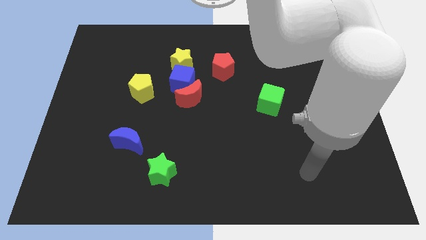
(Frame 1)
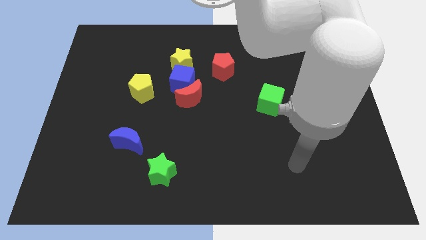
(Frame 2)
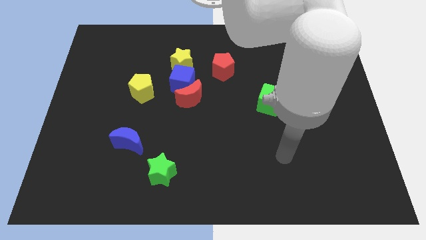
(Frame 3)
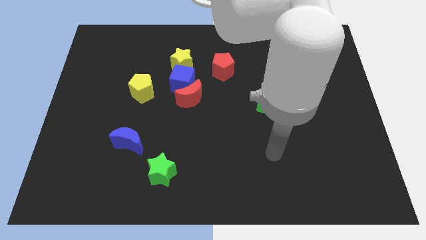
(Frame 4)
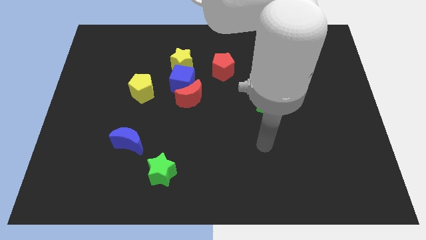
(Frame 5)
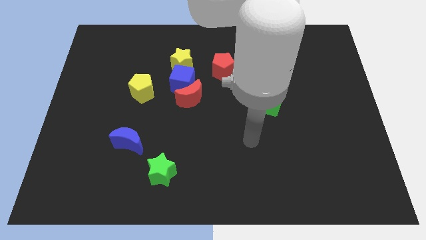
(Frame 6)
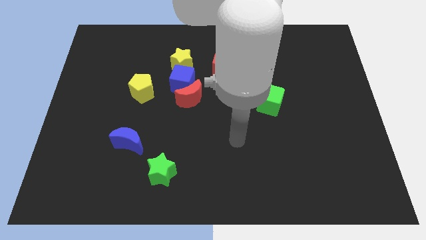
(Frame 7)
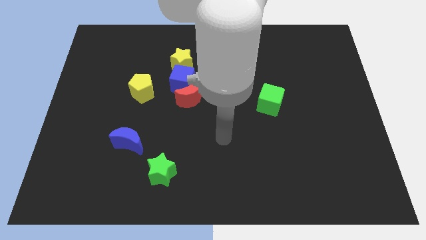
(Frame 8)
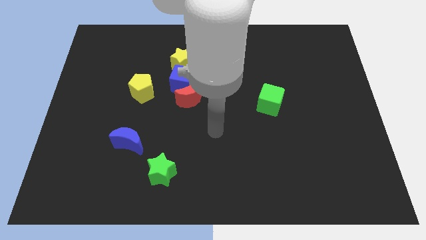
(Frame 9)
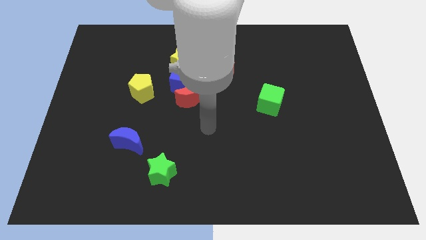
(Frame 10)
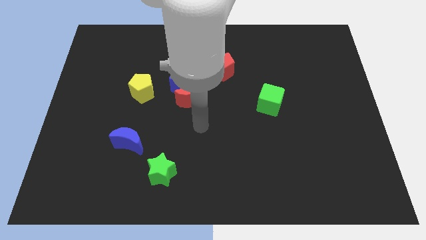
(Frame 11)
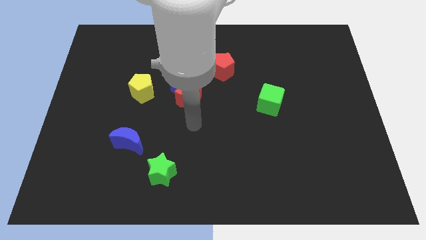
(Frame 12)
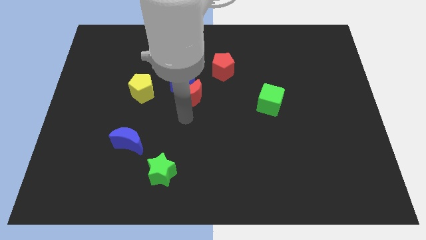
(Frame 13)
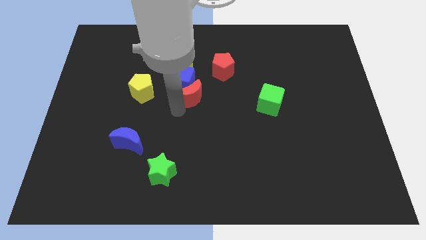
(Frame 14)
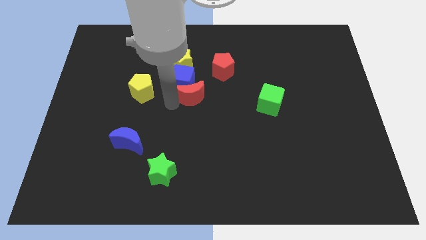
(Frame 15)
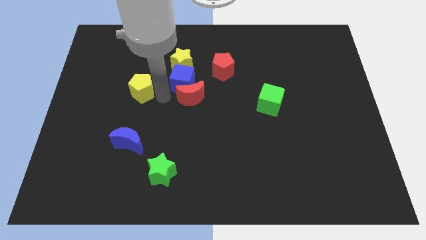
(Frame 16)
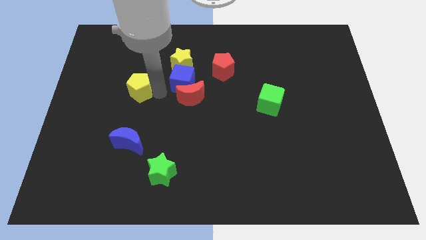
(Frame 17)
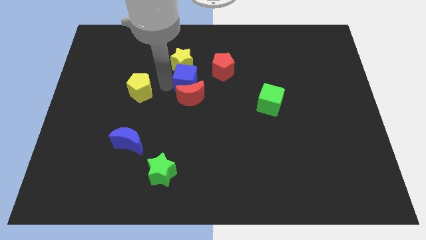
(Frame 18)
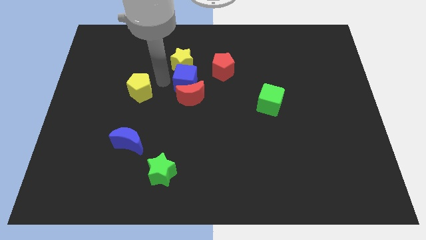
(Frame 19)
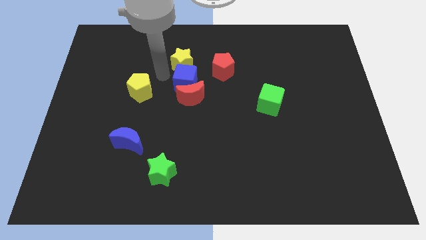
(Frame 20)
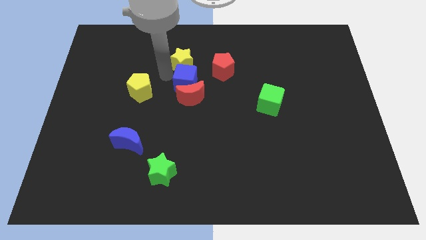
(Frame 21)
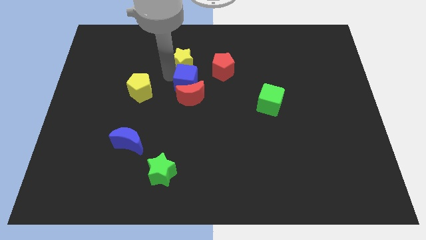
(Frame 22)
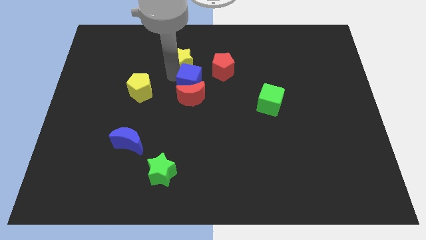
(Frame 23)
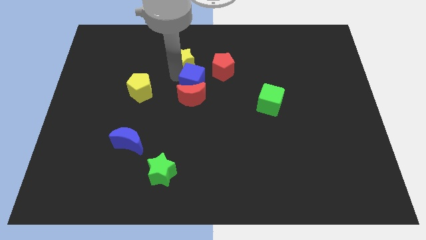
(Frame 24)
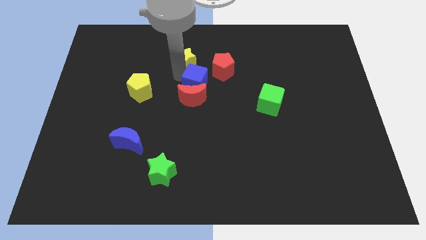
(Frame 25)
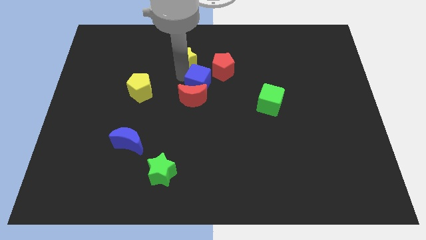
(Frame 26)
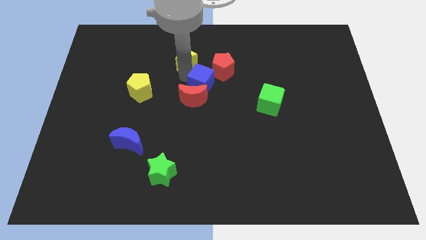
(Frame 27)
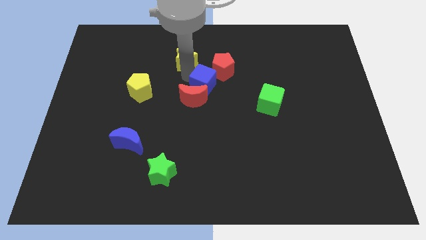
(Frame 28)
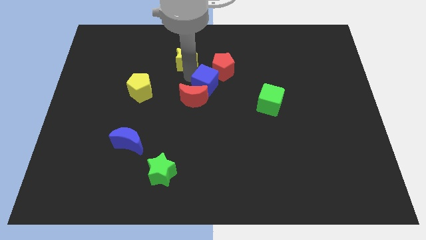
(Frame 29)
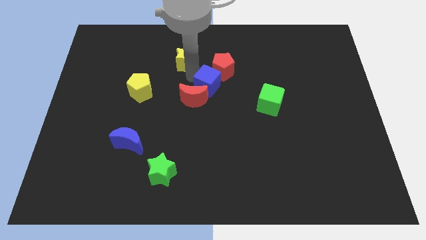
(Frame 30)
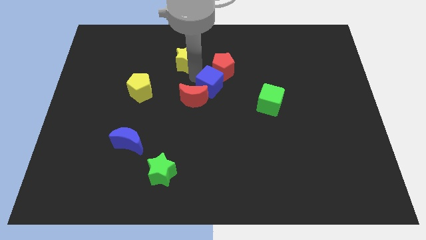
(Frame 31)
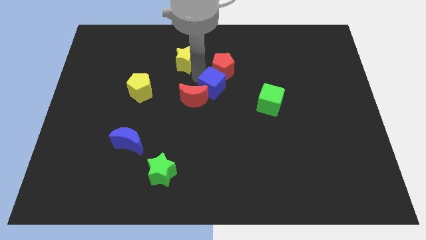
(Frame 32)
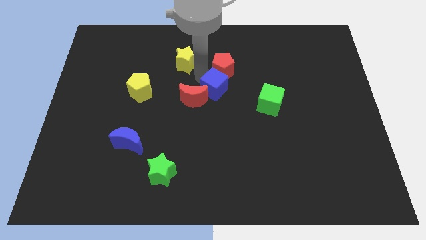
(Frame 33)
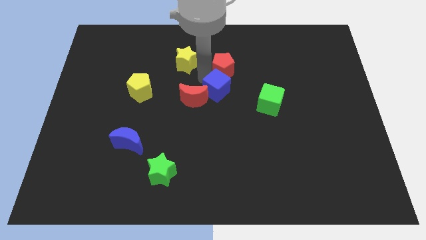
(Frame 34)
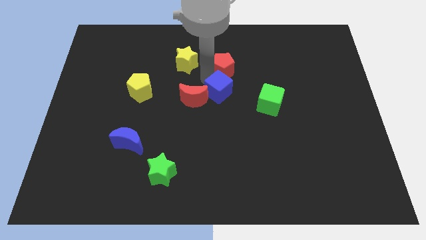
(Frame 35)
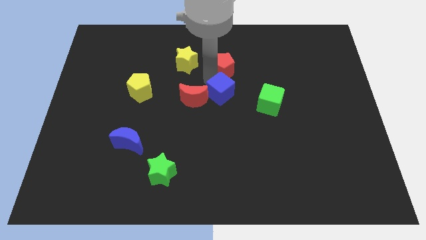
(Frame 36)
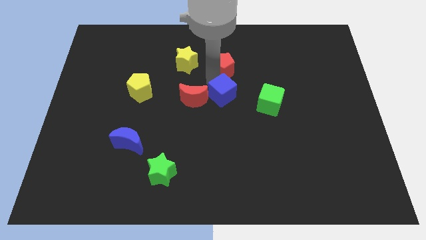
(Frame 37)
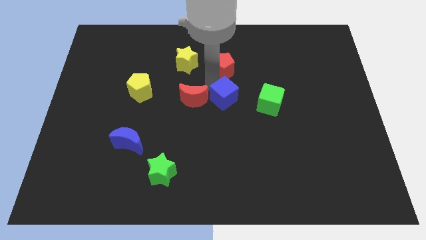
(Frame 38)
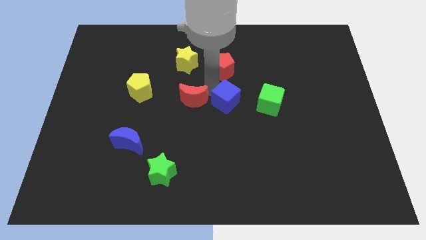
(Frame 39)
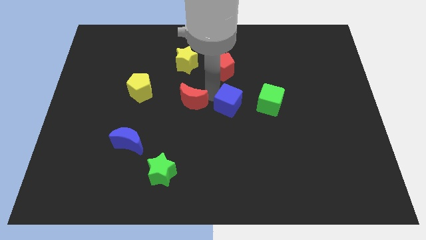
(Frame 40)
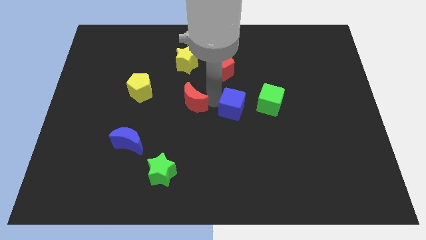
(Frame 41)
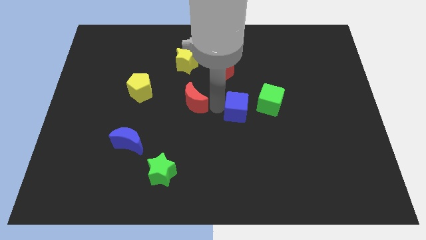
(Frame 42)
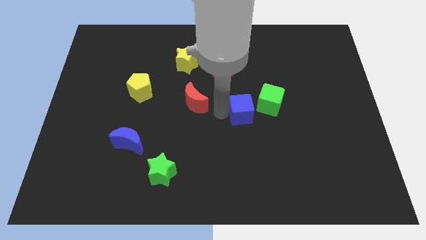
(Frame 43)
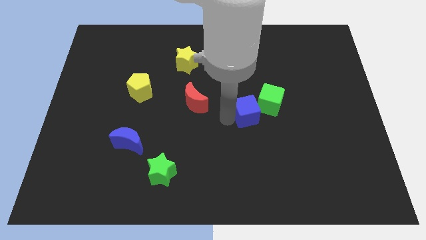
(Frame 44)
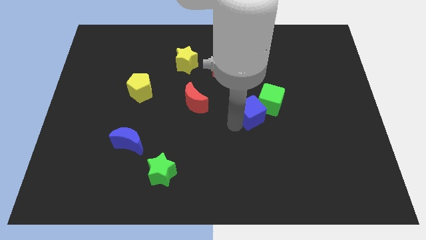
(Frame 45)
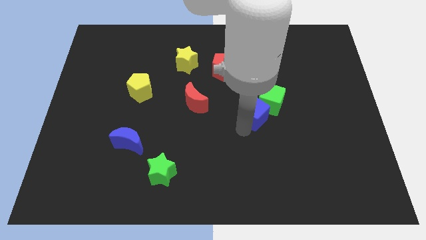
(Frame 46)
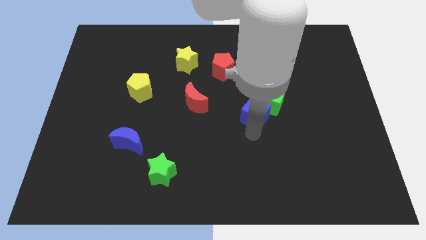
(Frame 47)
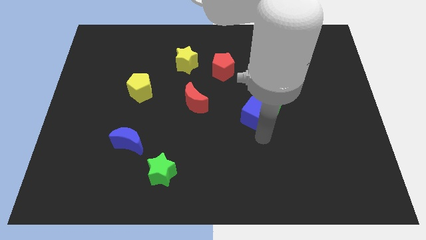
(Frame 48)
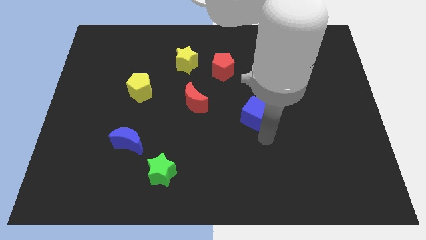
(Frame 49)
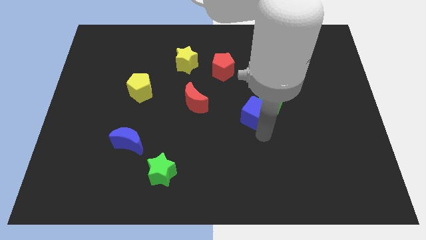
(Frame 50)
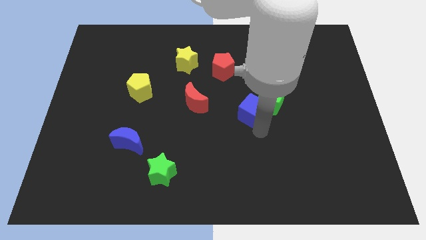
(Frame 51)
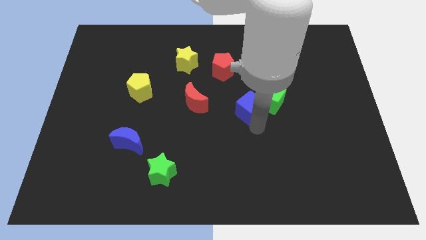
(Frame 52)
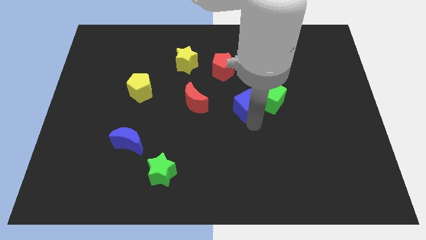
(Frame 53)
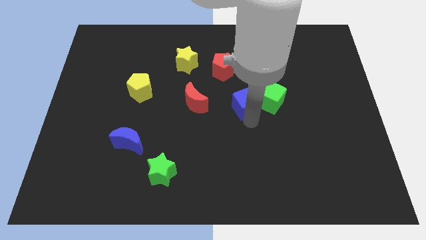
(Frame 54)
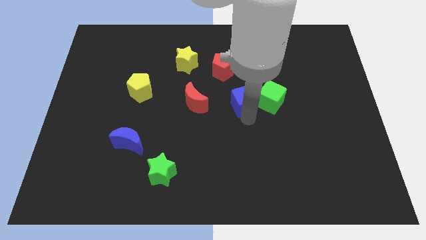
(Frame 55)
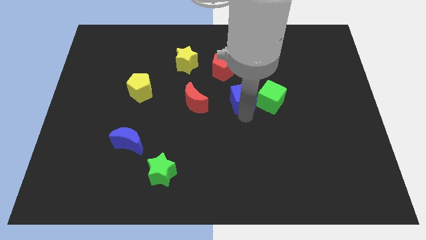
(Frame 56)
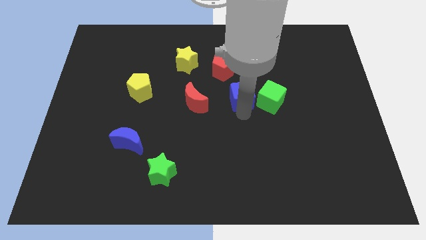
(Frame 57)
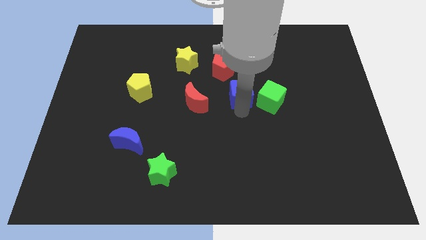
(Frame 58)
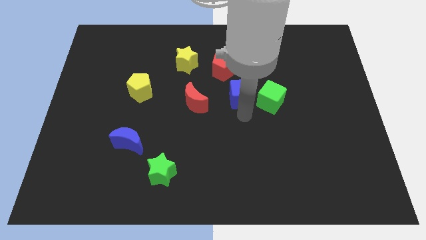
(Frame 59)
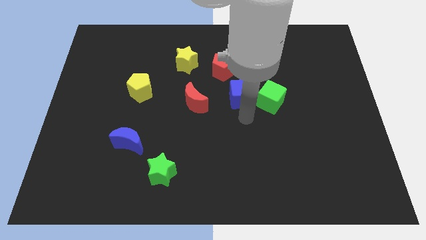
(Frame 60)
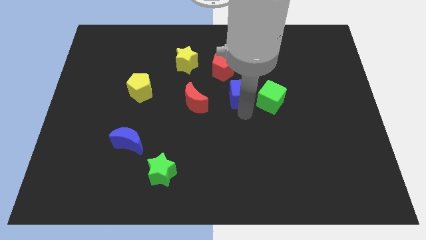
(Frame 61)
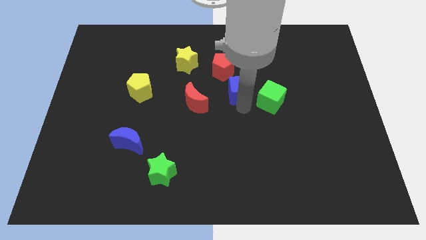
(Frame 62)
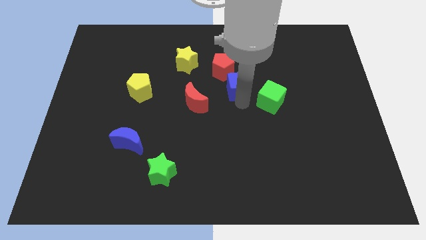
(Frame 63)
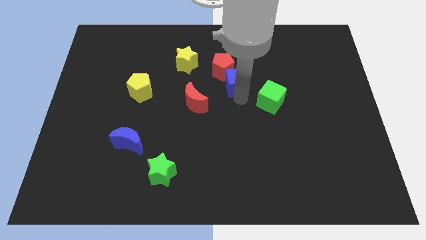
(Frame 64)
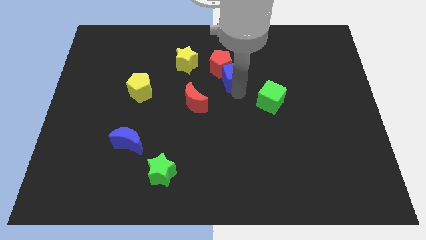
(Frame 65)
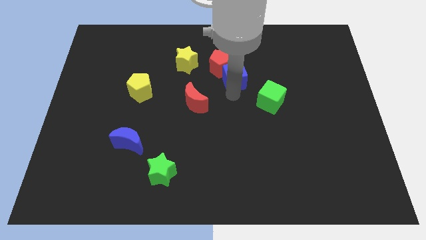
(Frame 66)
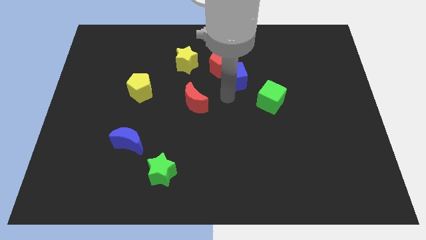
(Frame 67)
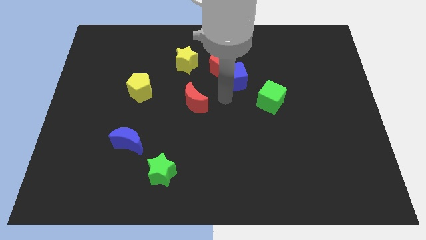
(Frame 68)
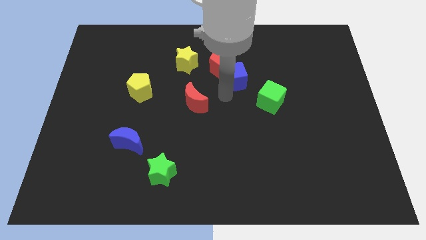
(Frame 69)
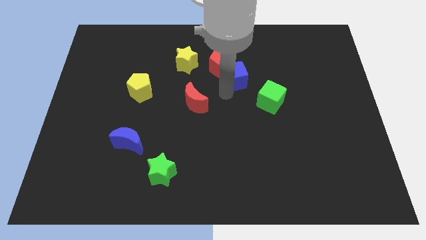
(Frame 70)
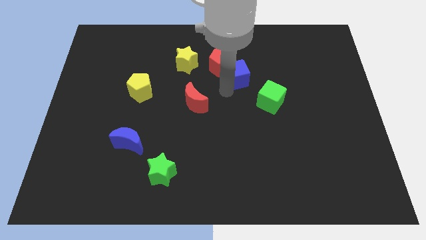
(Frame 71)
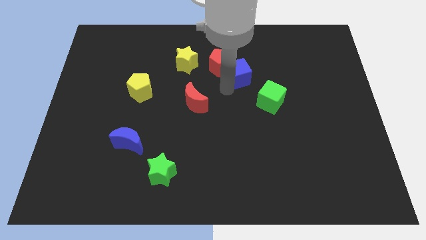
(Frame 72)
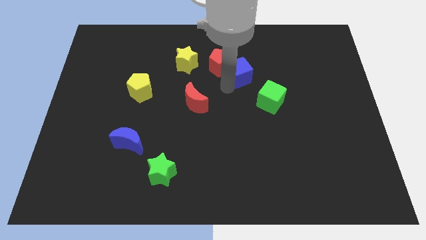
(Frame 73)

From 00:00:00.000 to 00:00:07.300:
move the blue cube right of the yellow star

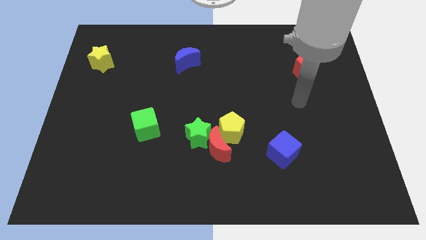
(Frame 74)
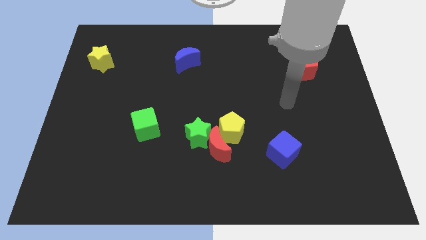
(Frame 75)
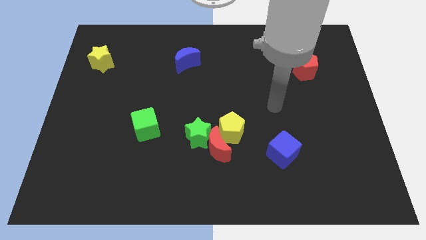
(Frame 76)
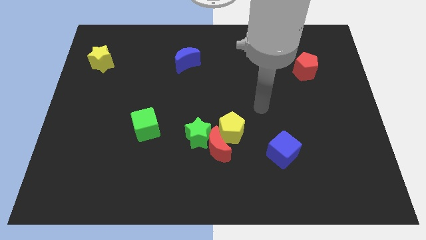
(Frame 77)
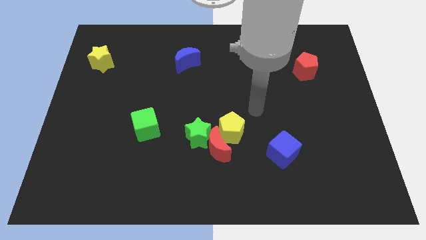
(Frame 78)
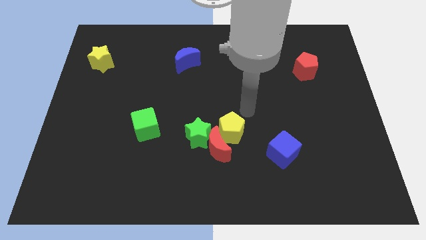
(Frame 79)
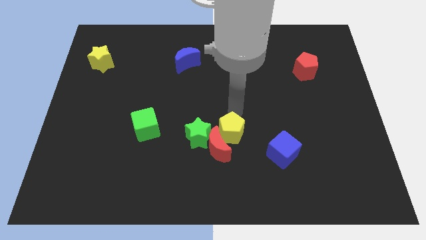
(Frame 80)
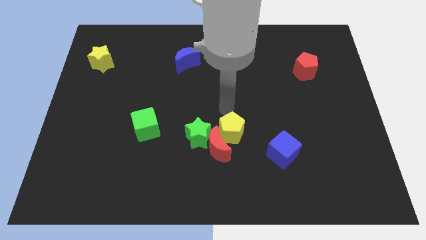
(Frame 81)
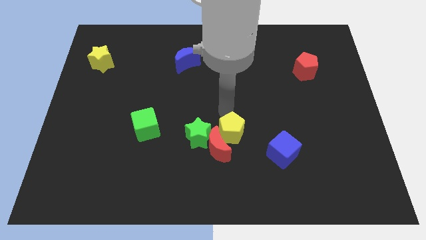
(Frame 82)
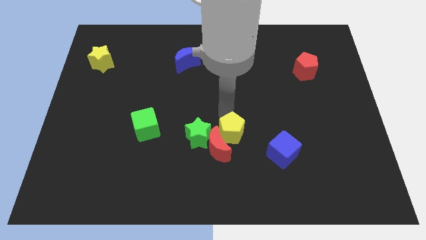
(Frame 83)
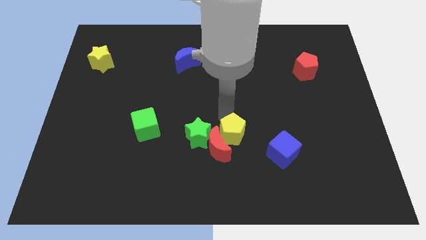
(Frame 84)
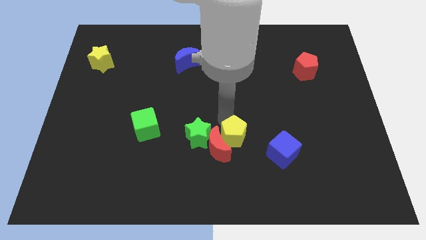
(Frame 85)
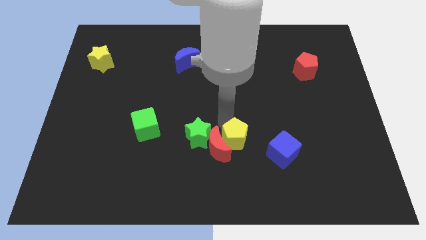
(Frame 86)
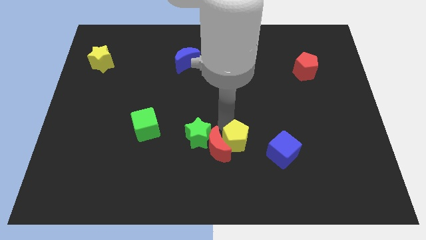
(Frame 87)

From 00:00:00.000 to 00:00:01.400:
put the yellow pentagon to the bottom right side of the red moon
